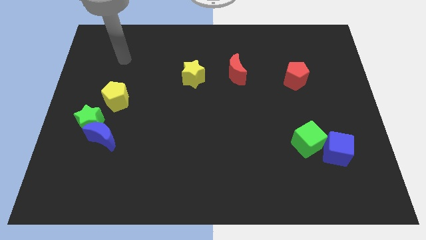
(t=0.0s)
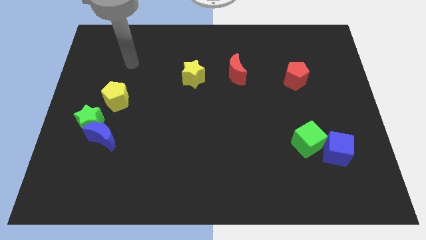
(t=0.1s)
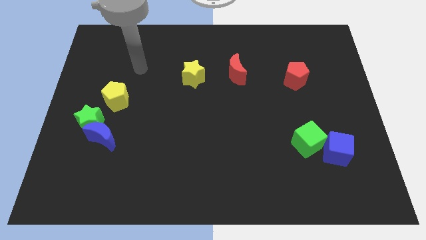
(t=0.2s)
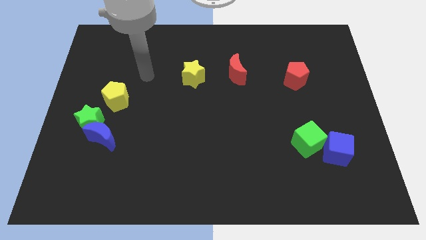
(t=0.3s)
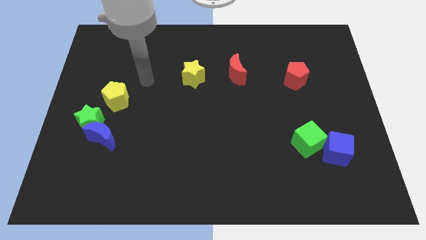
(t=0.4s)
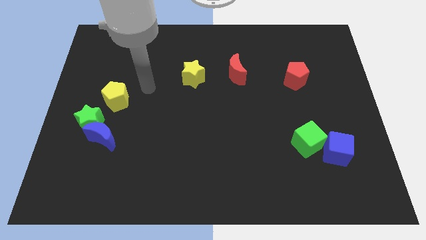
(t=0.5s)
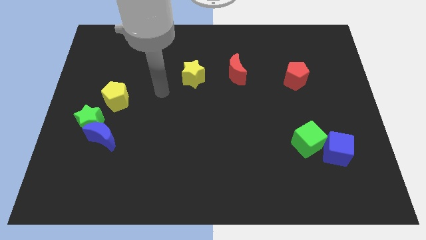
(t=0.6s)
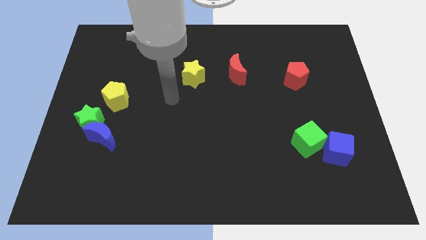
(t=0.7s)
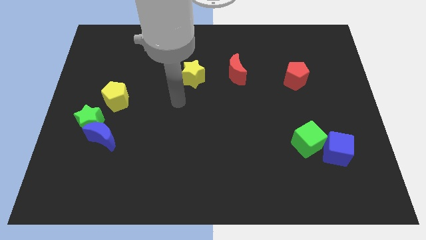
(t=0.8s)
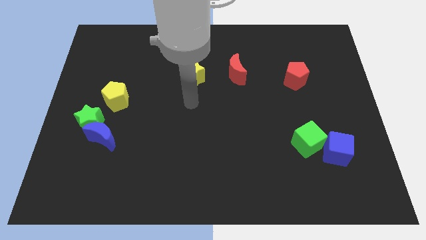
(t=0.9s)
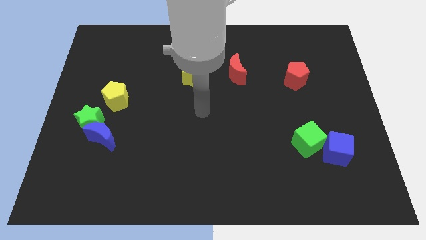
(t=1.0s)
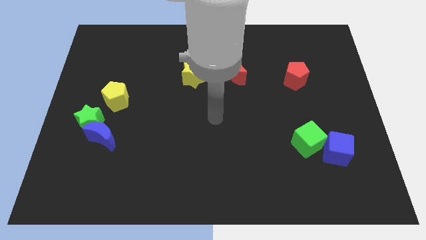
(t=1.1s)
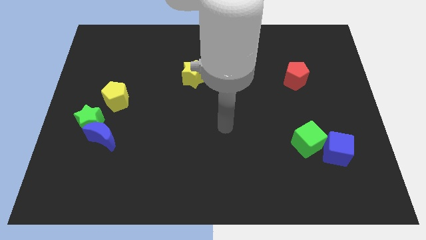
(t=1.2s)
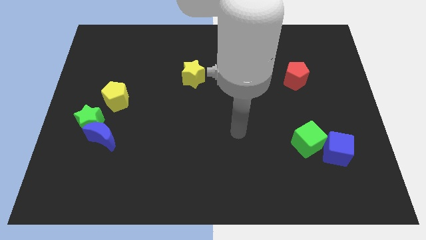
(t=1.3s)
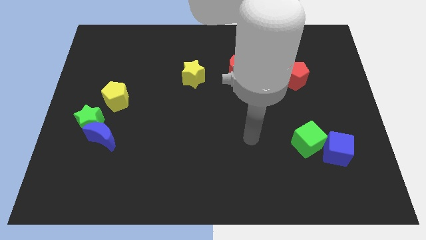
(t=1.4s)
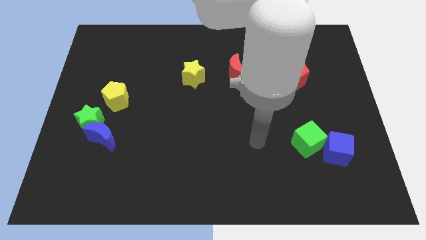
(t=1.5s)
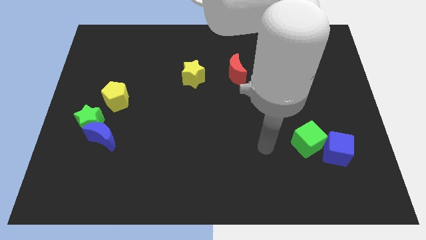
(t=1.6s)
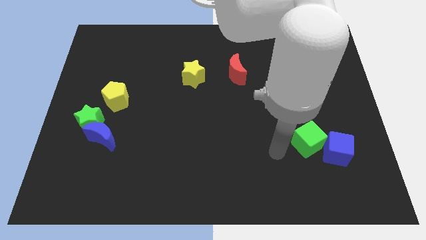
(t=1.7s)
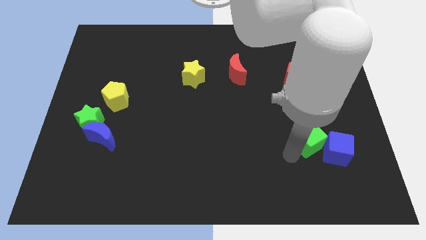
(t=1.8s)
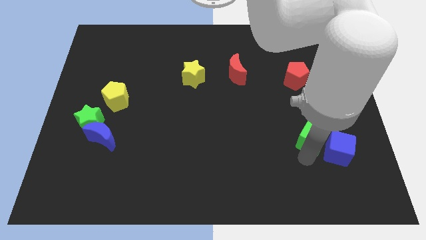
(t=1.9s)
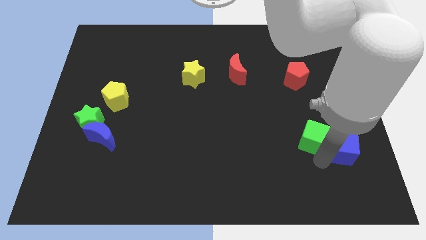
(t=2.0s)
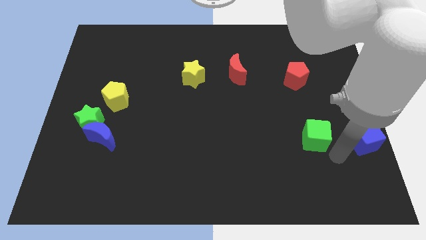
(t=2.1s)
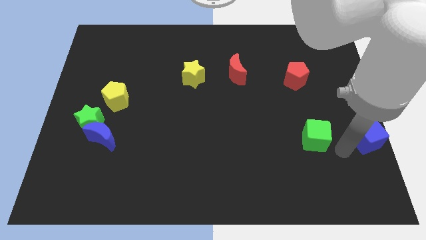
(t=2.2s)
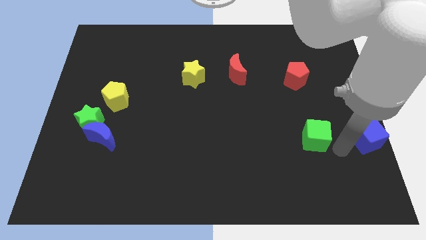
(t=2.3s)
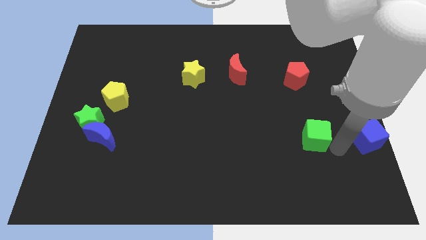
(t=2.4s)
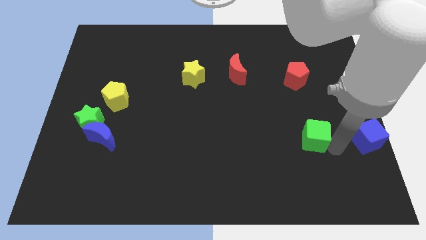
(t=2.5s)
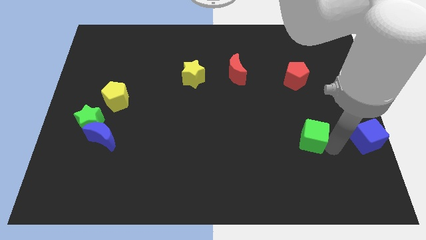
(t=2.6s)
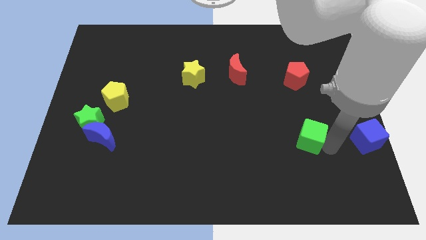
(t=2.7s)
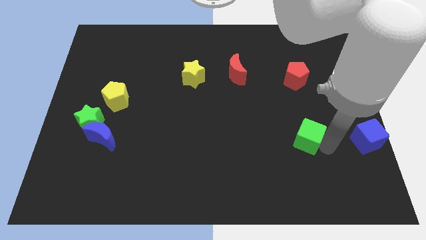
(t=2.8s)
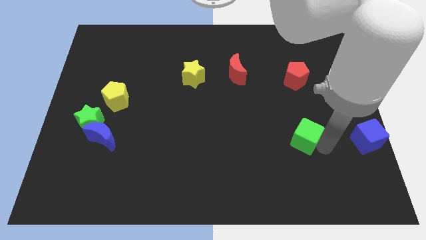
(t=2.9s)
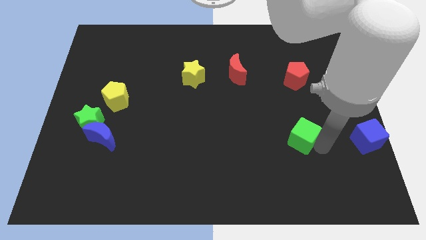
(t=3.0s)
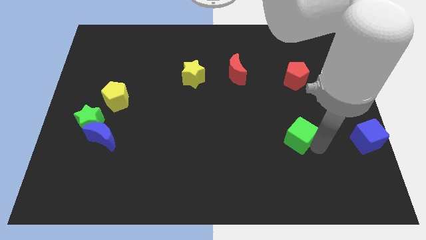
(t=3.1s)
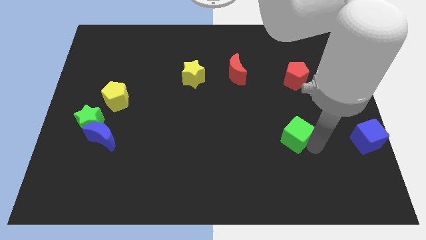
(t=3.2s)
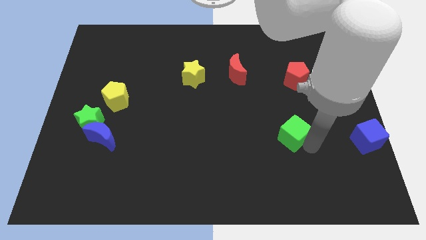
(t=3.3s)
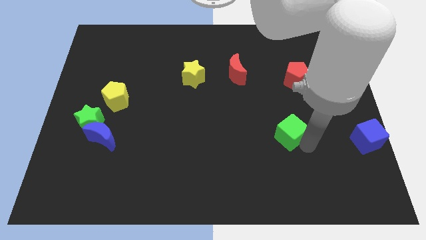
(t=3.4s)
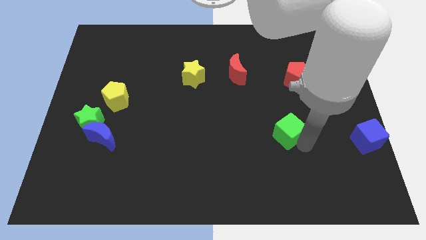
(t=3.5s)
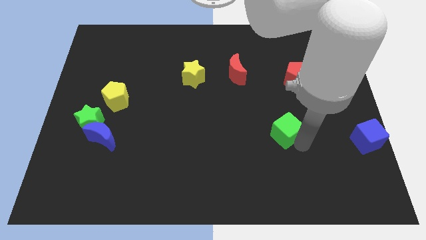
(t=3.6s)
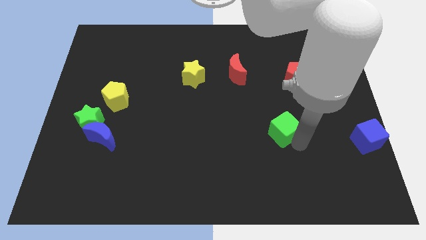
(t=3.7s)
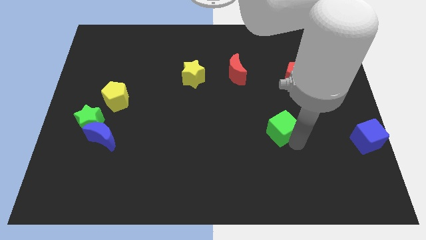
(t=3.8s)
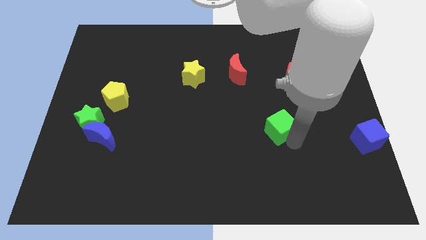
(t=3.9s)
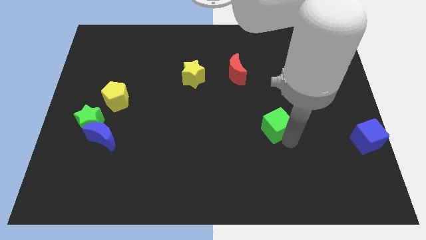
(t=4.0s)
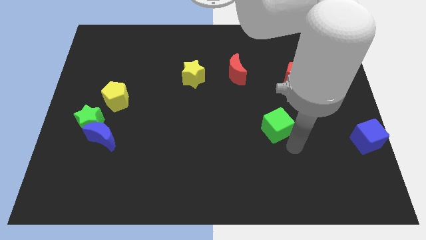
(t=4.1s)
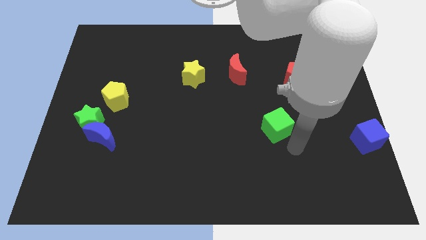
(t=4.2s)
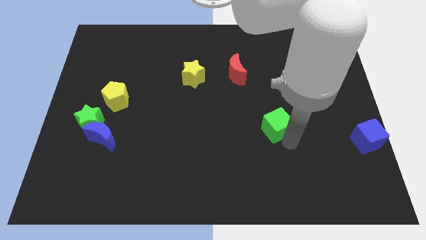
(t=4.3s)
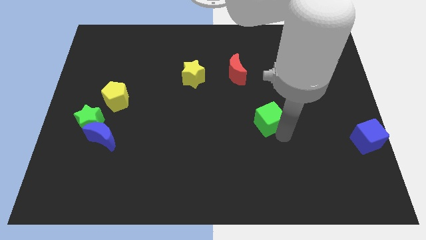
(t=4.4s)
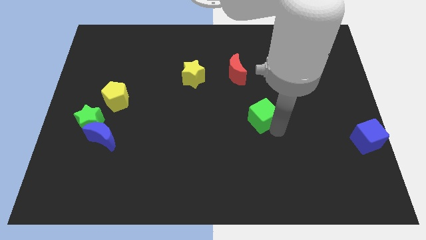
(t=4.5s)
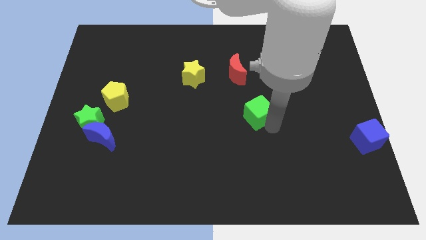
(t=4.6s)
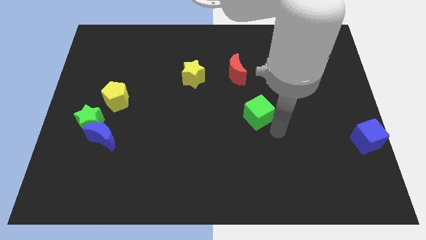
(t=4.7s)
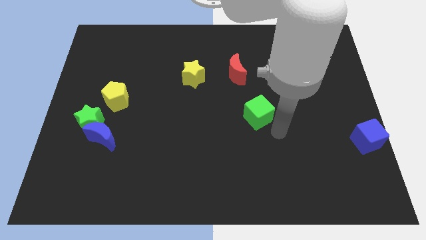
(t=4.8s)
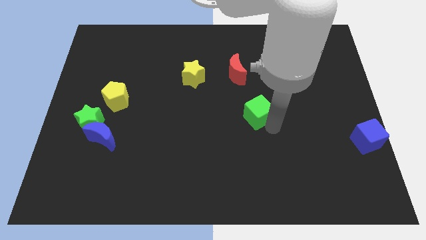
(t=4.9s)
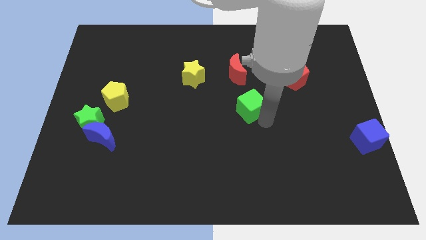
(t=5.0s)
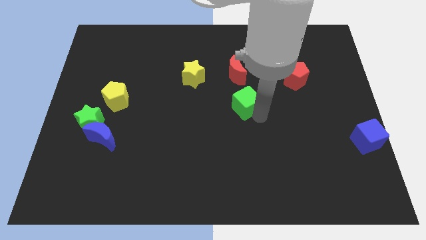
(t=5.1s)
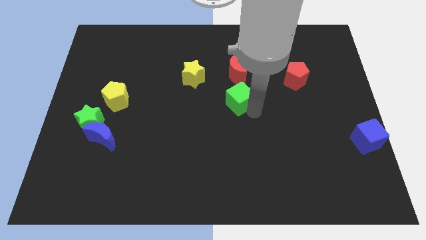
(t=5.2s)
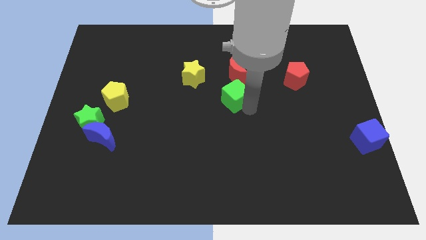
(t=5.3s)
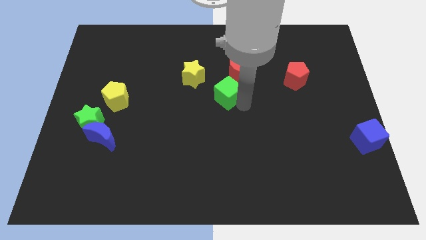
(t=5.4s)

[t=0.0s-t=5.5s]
push the green cube upwards and to the left diagonally

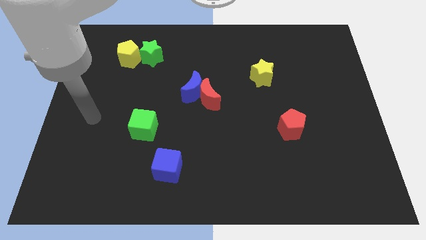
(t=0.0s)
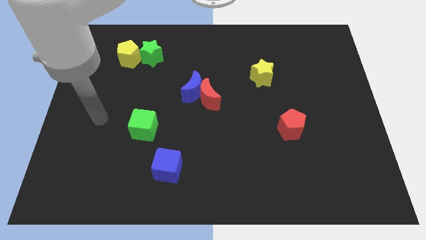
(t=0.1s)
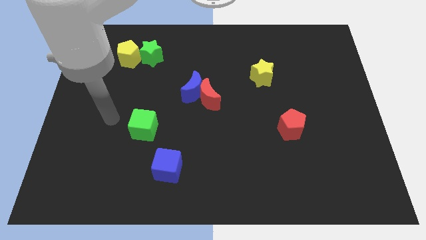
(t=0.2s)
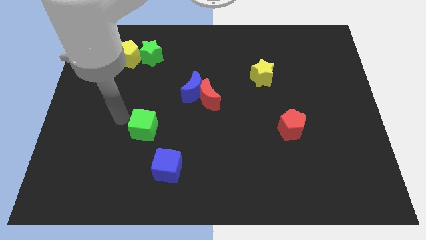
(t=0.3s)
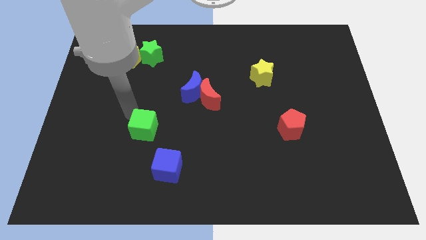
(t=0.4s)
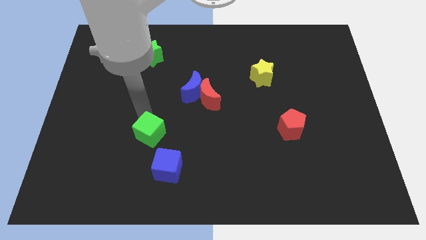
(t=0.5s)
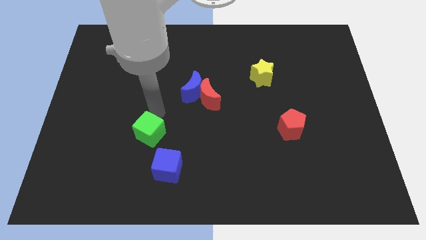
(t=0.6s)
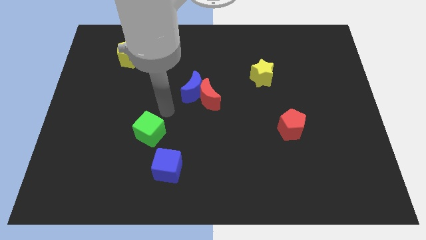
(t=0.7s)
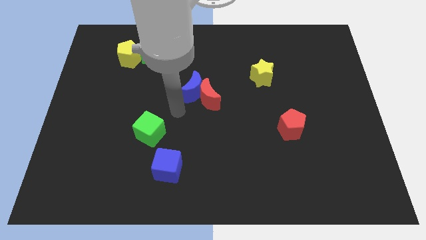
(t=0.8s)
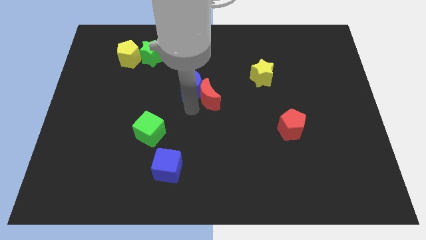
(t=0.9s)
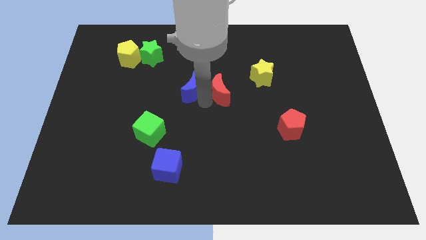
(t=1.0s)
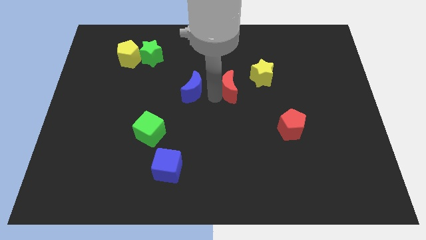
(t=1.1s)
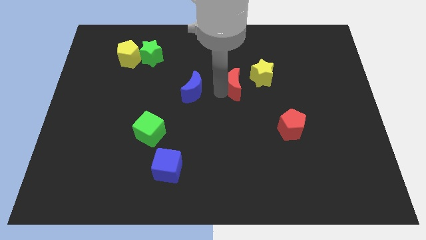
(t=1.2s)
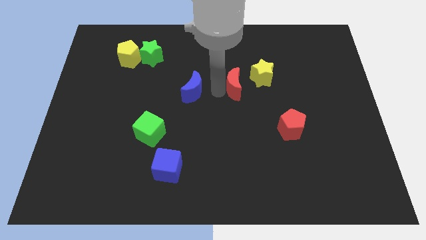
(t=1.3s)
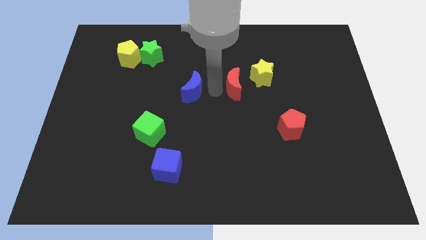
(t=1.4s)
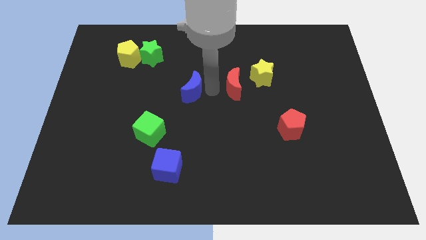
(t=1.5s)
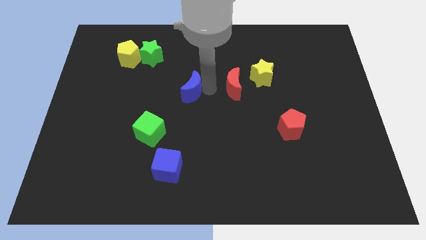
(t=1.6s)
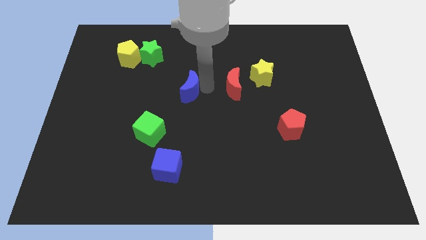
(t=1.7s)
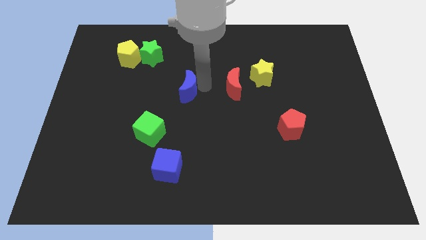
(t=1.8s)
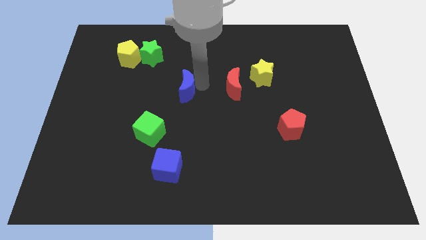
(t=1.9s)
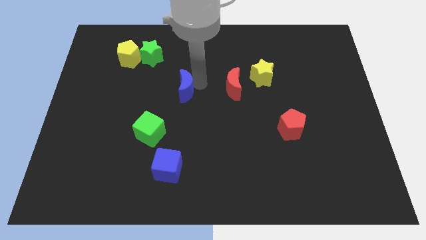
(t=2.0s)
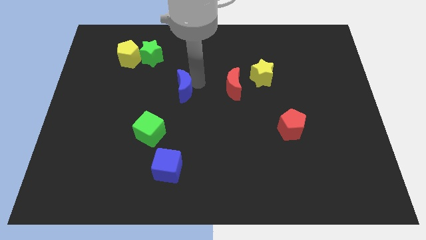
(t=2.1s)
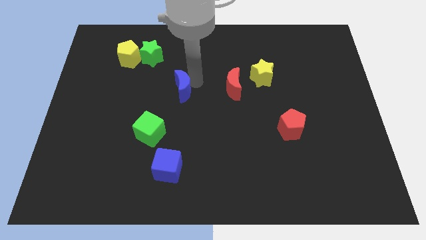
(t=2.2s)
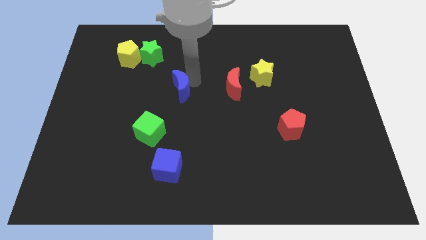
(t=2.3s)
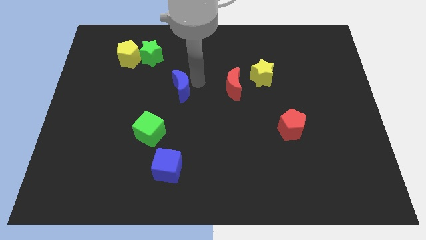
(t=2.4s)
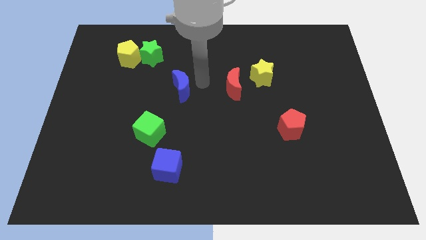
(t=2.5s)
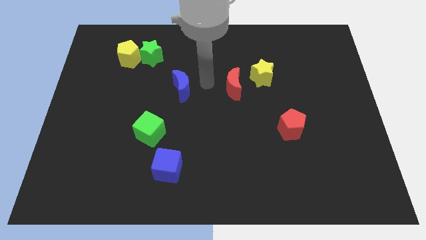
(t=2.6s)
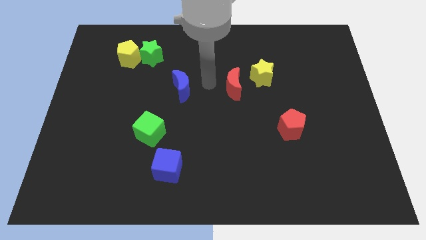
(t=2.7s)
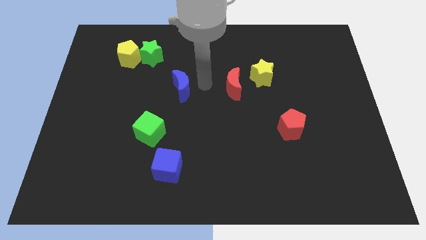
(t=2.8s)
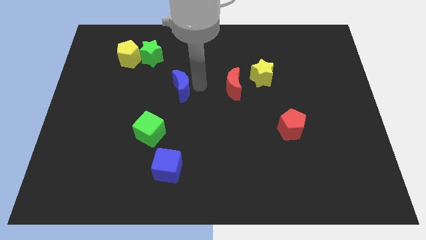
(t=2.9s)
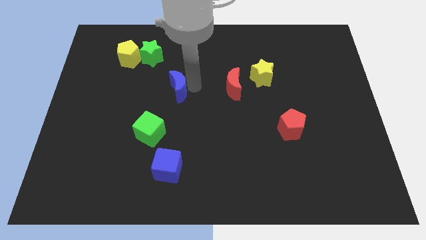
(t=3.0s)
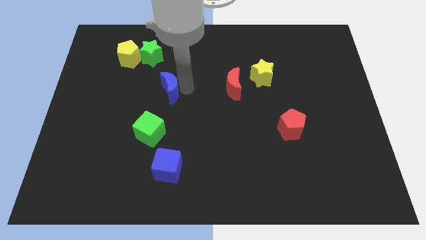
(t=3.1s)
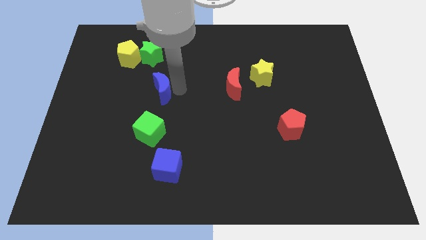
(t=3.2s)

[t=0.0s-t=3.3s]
slightly slide the blue moon to the left
